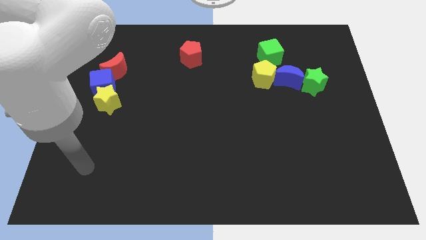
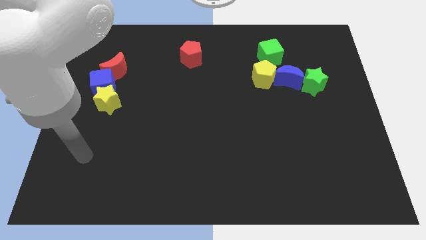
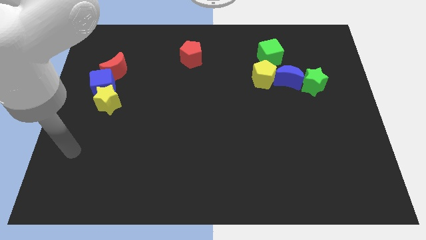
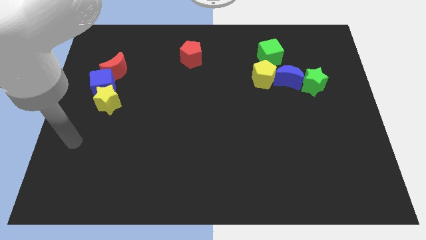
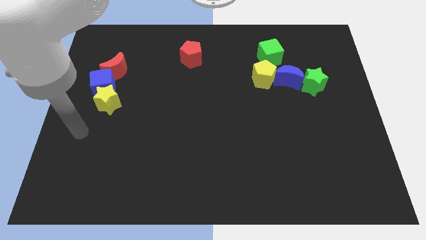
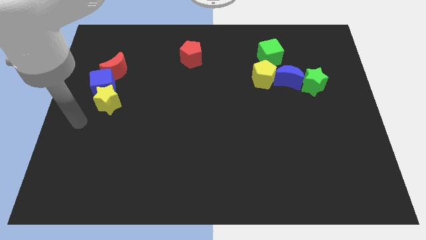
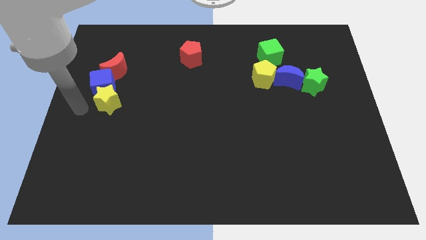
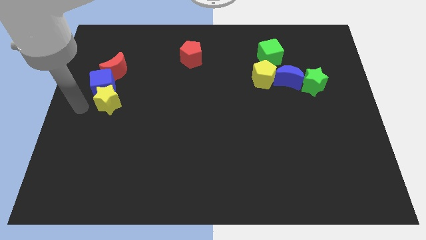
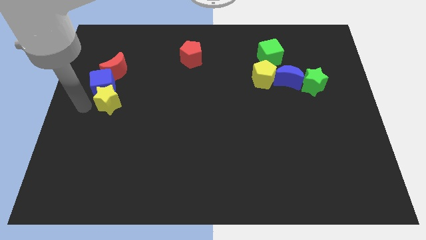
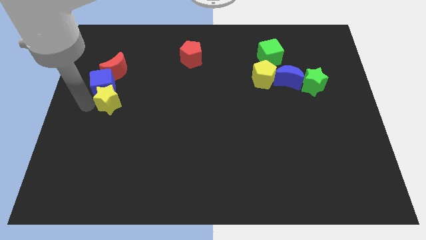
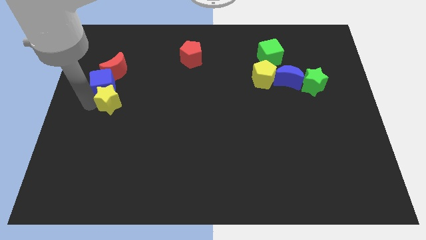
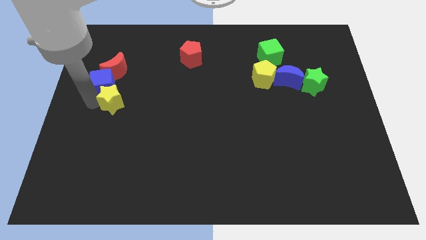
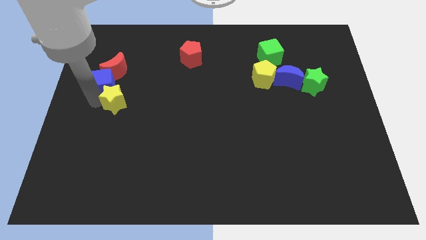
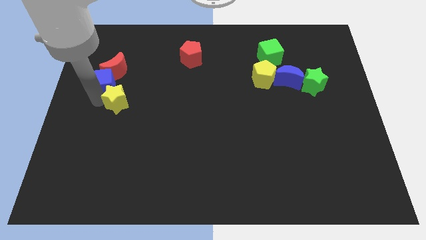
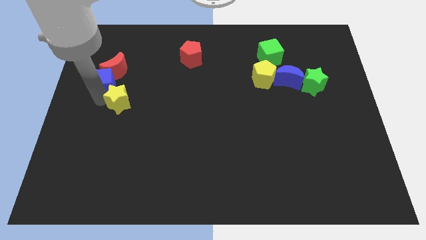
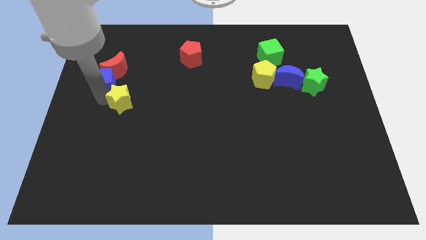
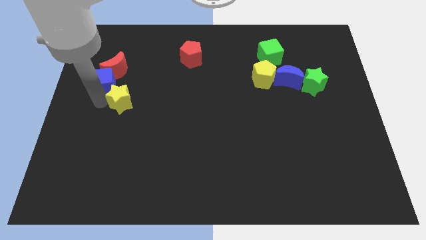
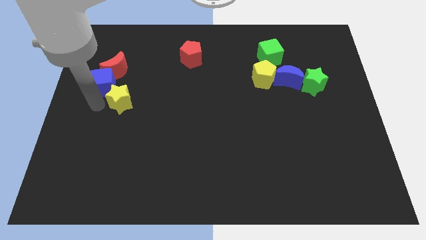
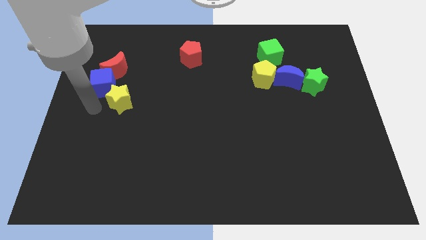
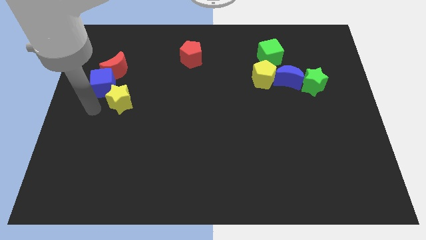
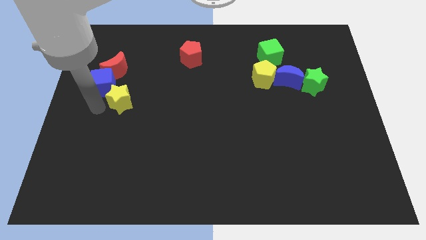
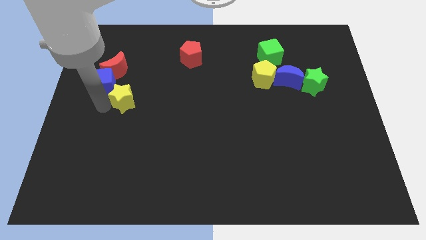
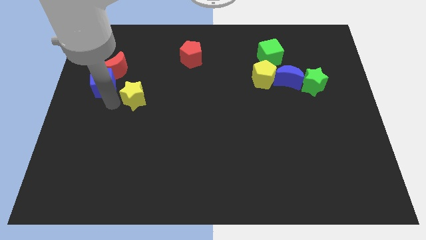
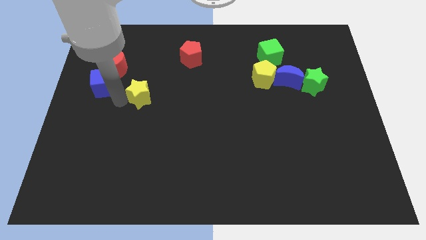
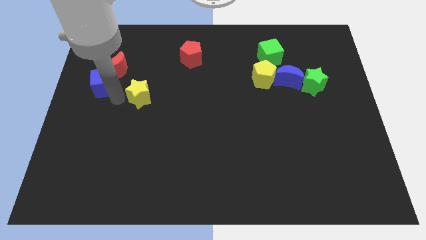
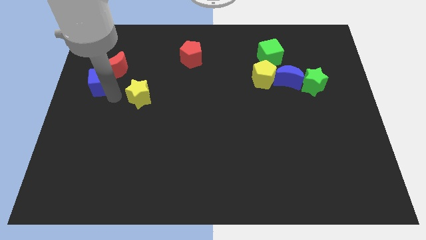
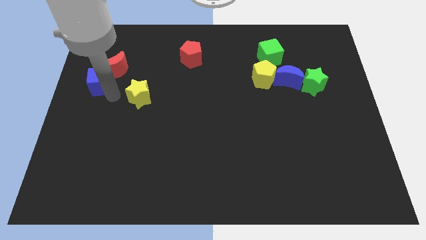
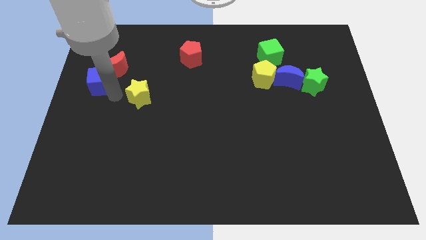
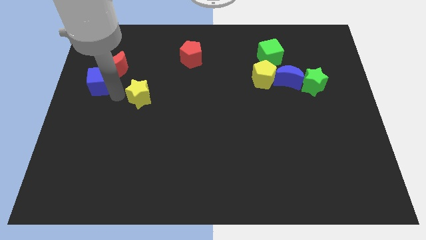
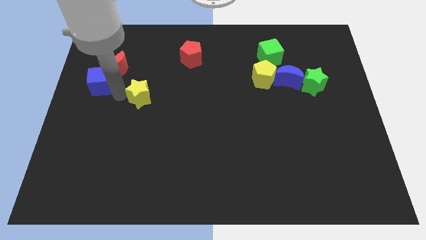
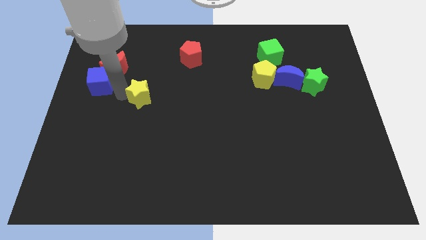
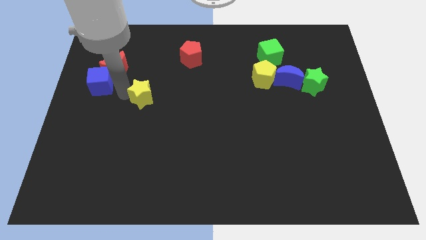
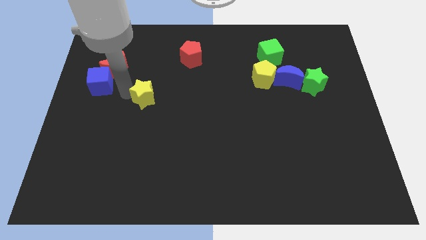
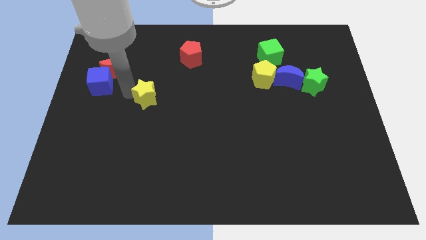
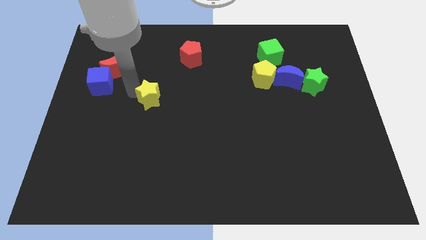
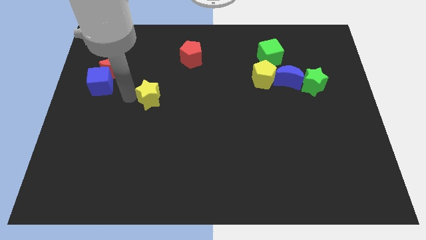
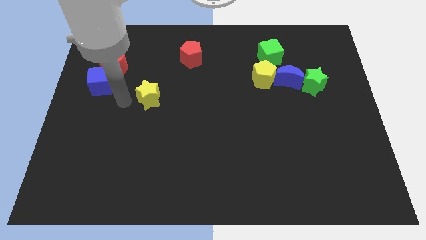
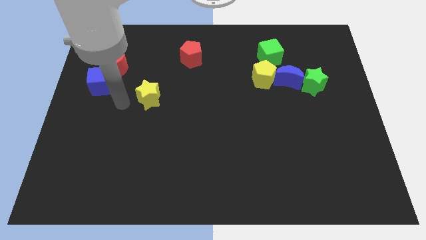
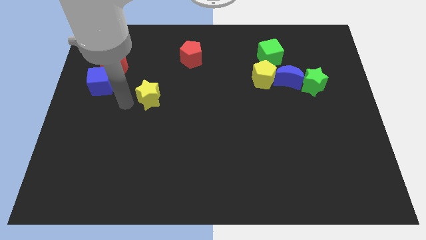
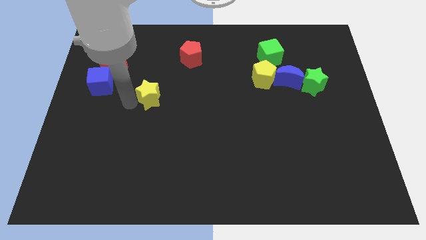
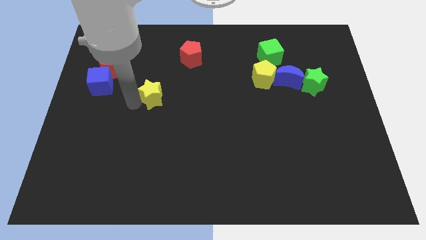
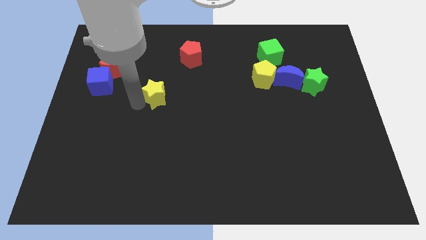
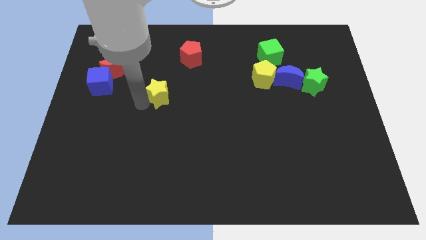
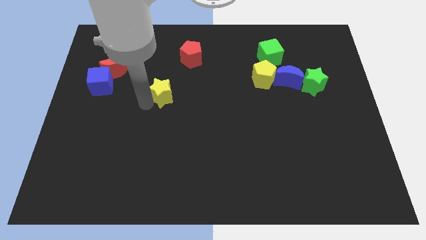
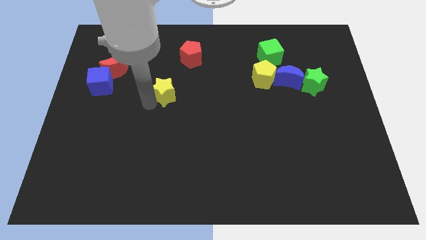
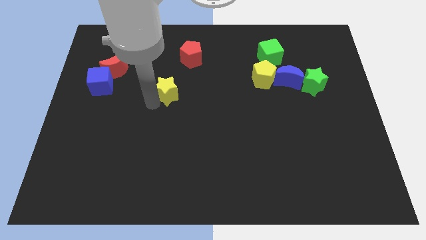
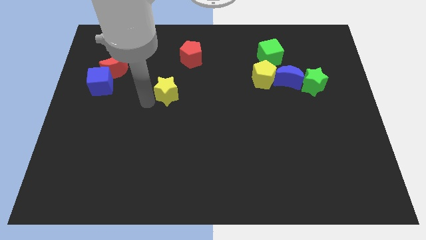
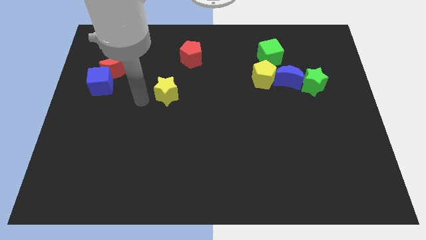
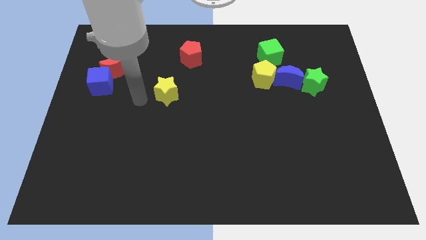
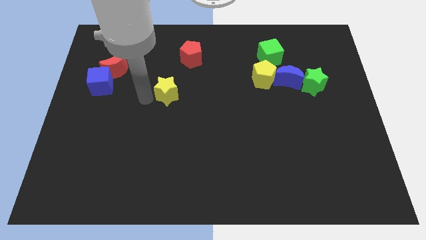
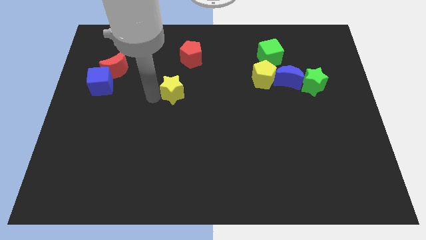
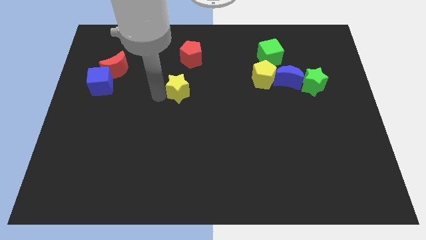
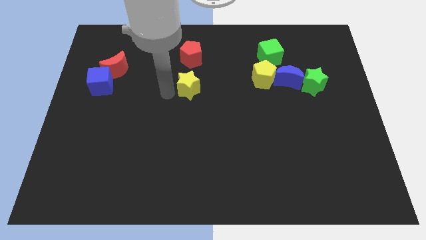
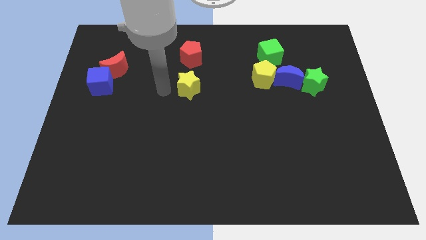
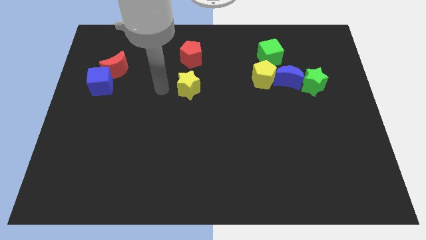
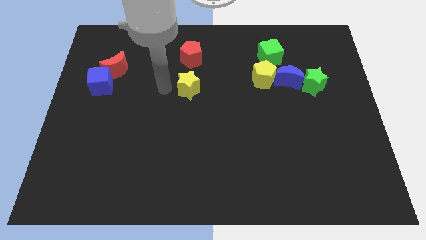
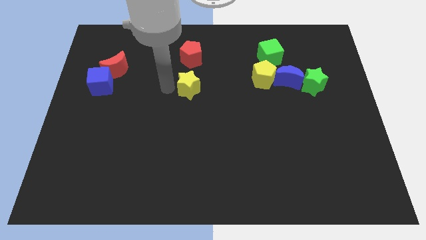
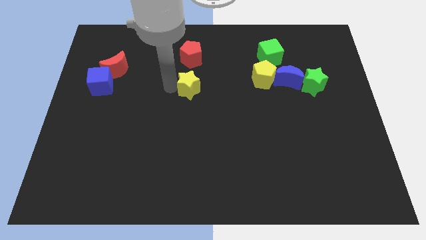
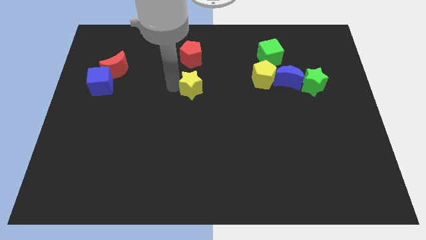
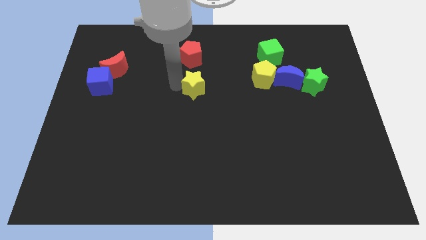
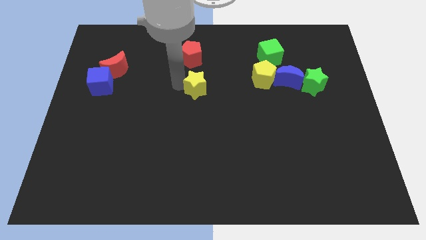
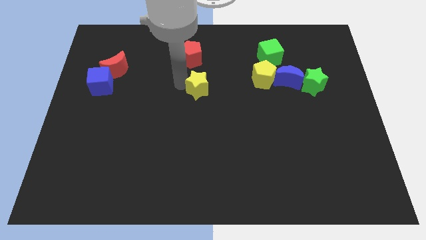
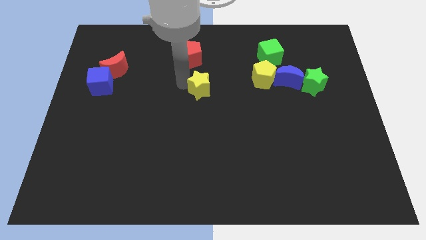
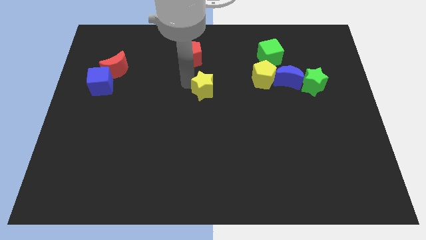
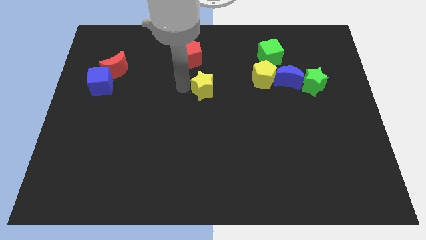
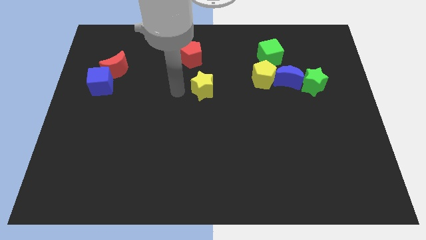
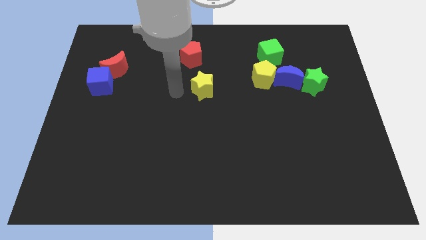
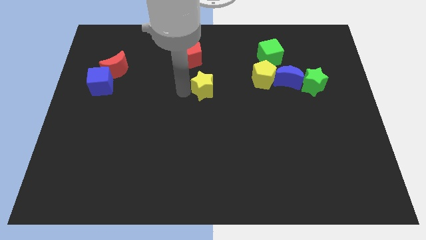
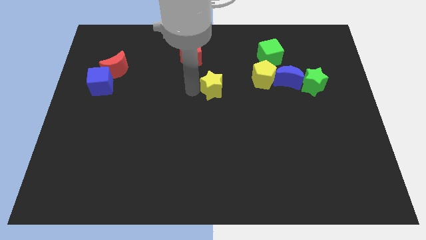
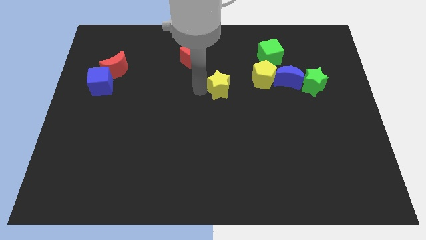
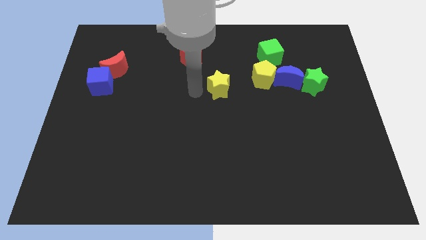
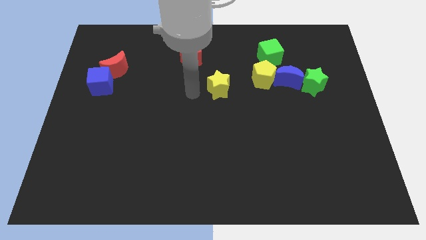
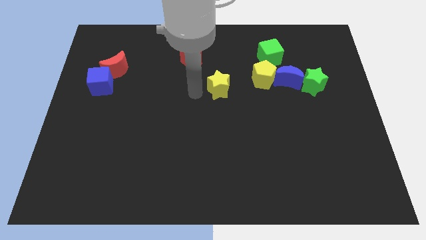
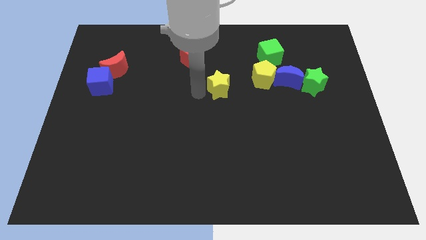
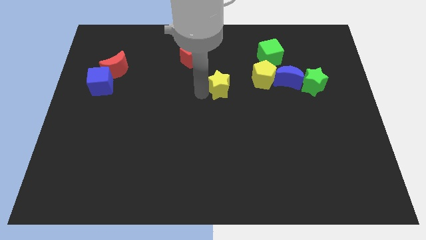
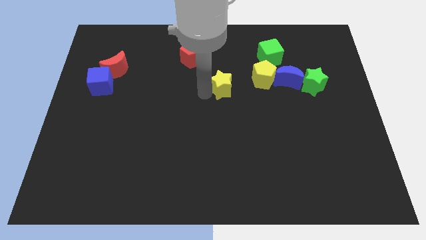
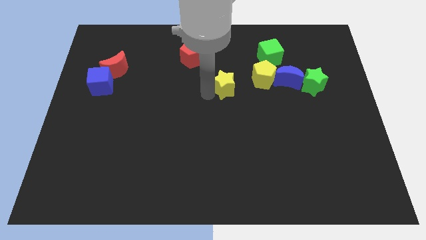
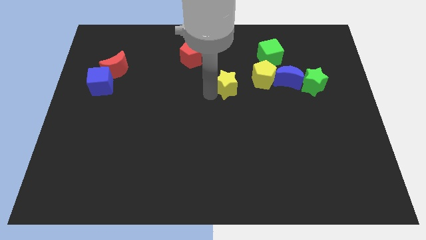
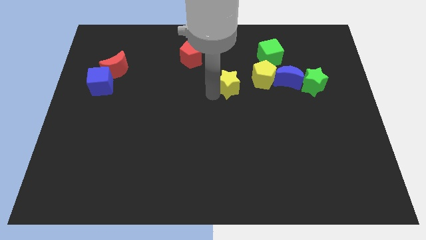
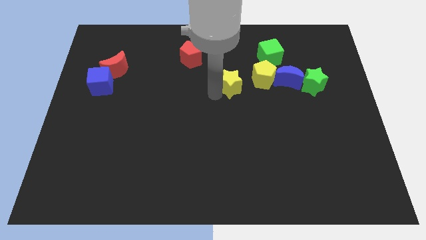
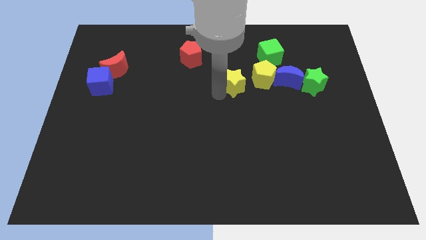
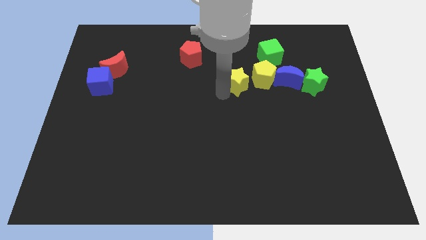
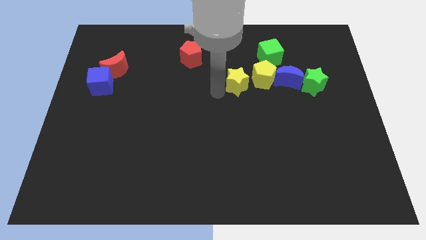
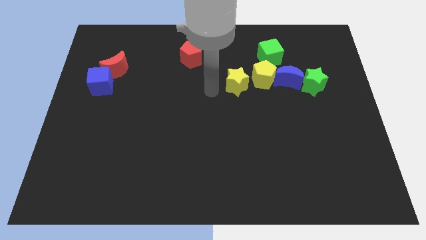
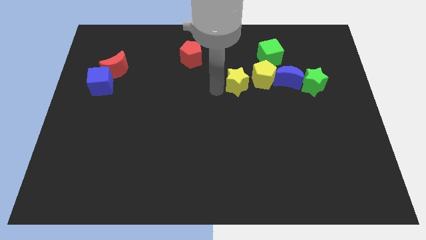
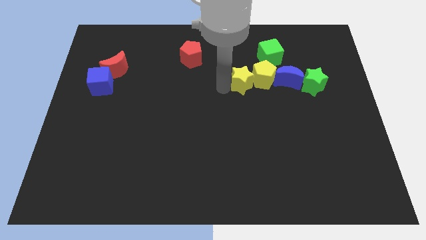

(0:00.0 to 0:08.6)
push the yellow star next to the yellow pentagon
